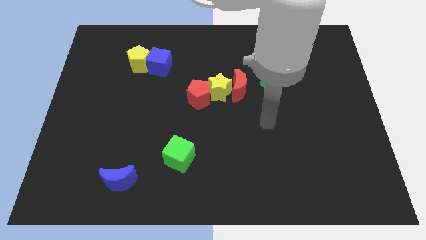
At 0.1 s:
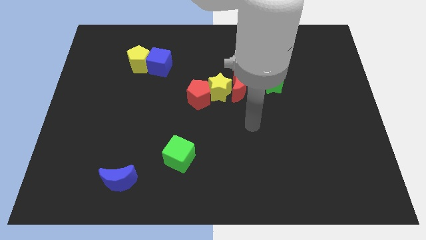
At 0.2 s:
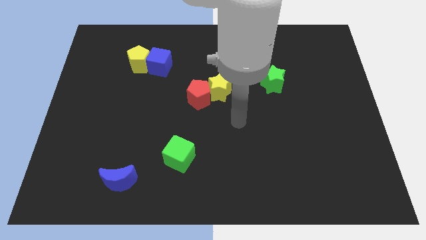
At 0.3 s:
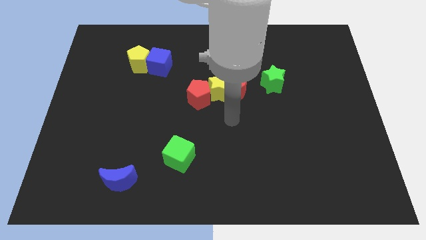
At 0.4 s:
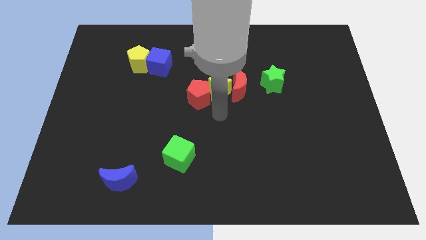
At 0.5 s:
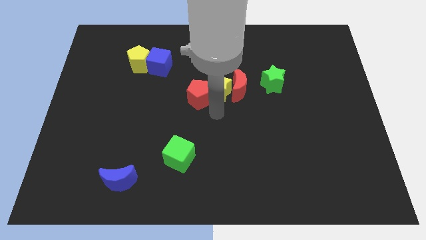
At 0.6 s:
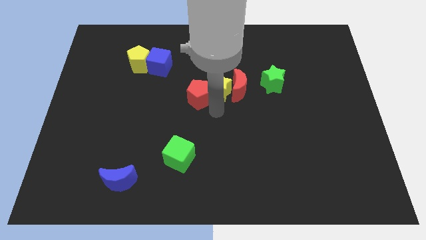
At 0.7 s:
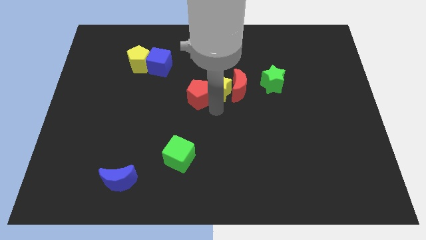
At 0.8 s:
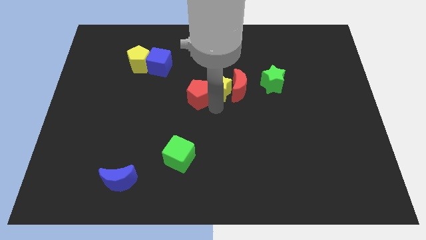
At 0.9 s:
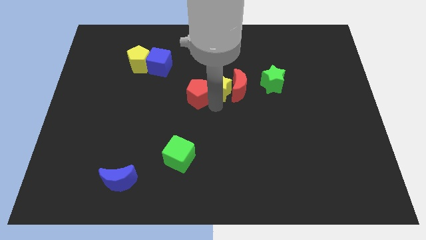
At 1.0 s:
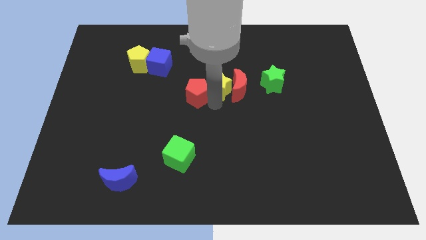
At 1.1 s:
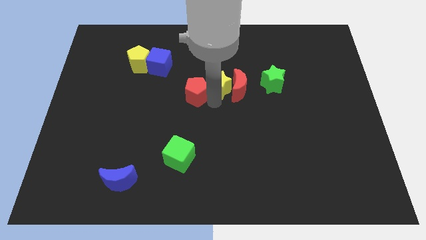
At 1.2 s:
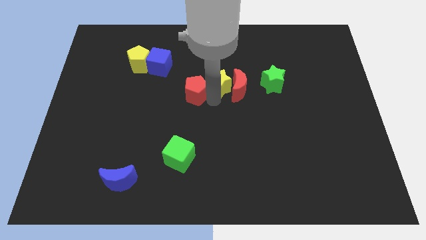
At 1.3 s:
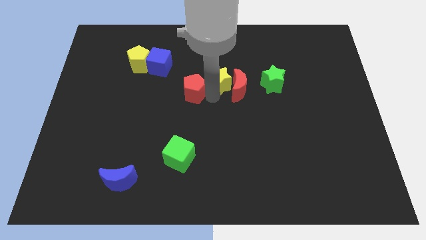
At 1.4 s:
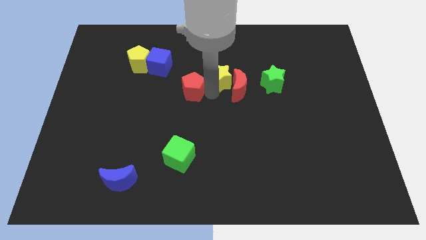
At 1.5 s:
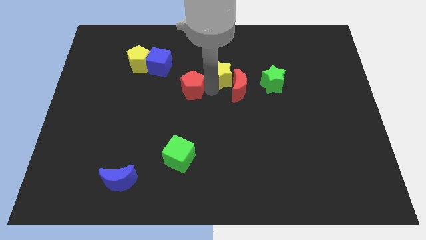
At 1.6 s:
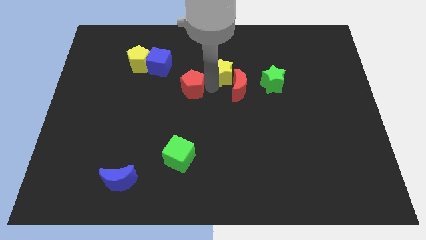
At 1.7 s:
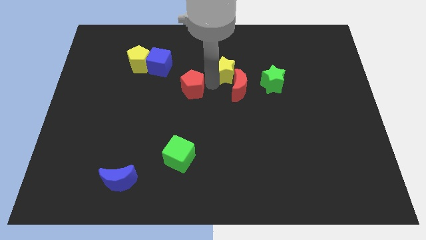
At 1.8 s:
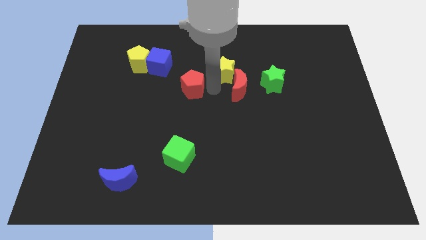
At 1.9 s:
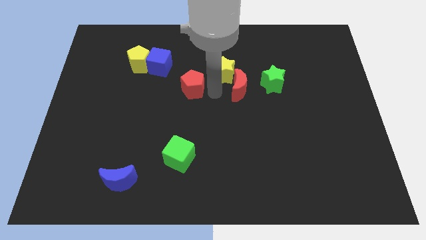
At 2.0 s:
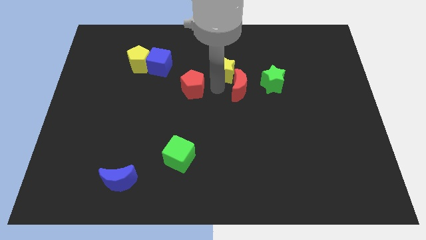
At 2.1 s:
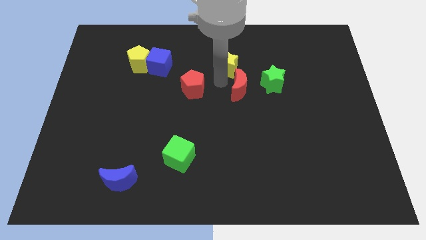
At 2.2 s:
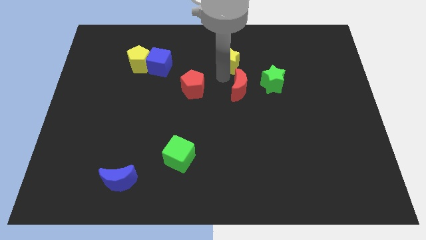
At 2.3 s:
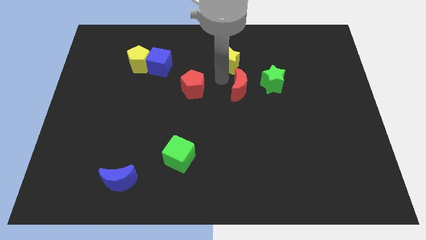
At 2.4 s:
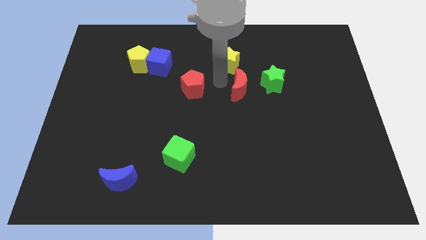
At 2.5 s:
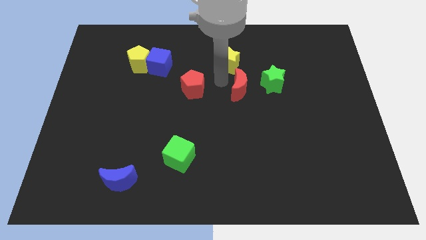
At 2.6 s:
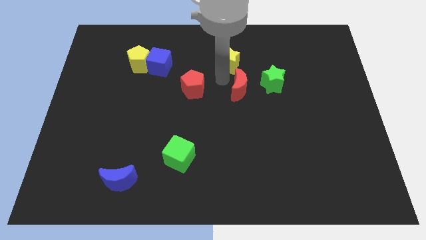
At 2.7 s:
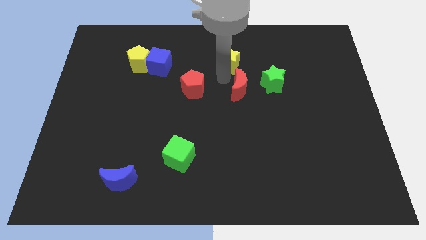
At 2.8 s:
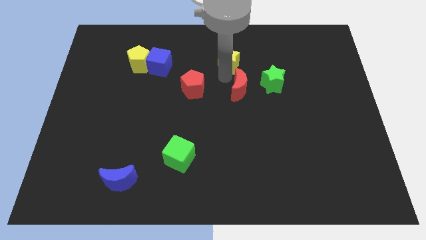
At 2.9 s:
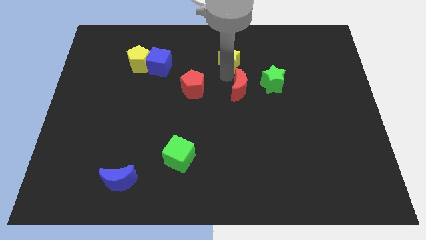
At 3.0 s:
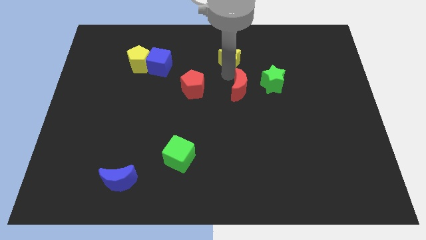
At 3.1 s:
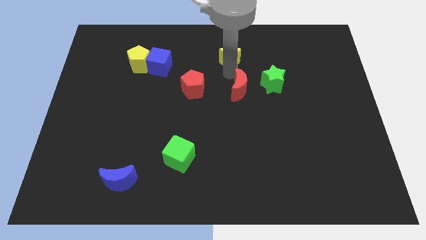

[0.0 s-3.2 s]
move the yellow star away from the red moon and red pentagon

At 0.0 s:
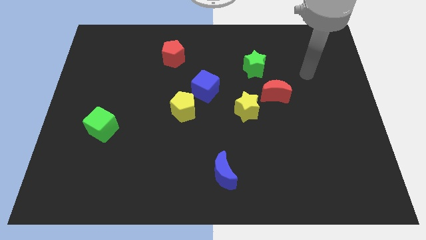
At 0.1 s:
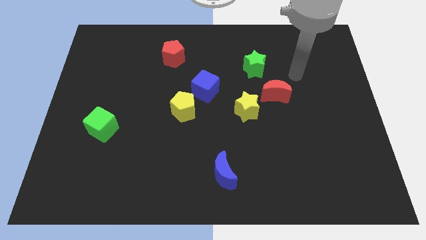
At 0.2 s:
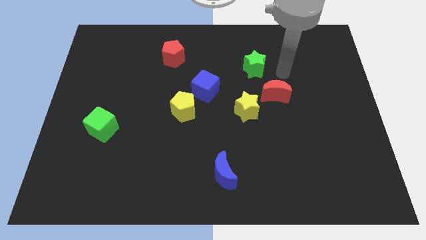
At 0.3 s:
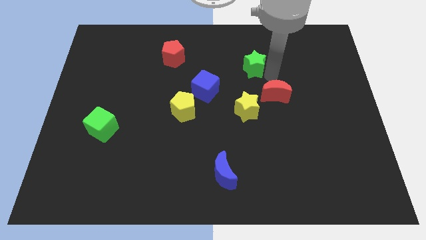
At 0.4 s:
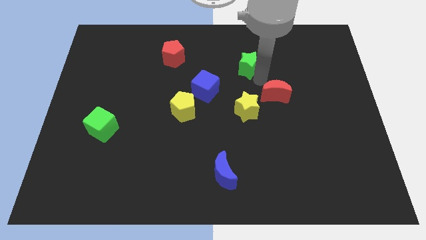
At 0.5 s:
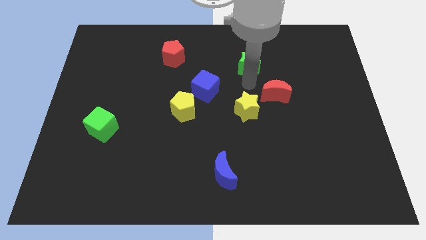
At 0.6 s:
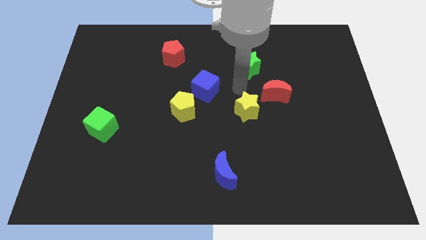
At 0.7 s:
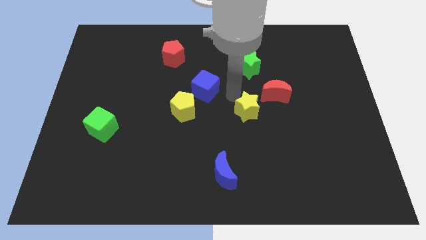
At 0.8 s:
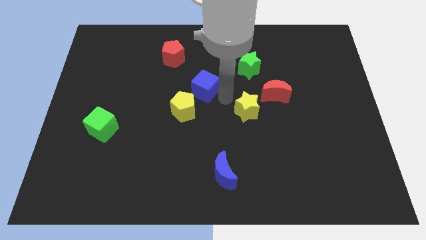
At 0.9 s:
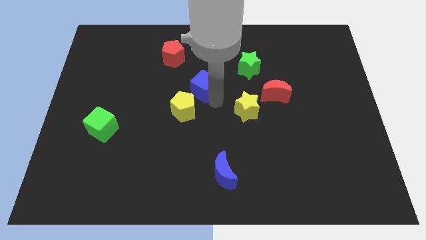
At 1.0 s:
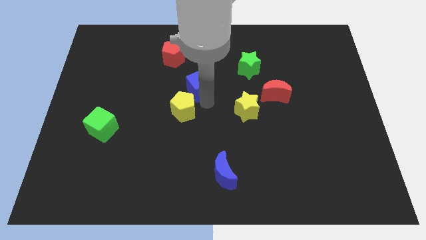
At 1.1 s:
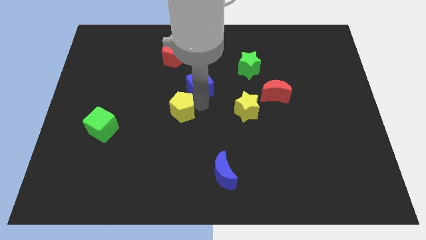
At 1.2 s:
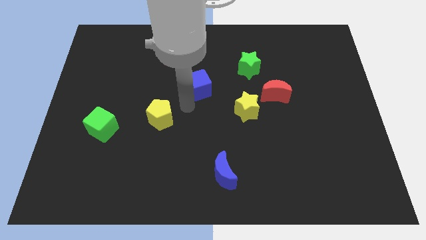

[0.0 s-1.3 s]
move the blue cube away from the yellow pentagon

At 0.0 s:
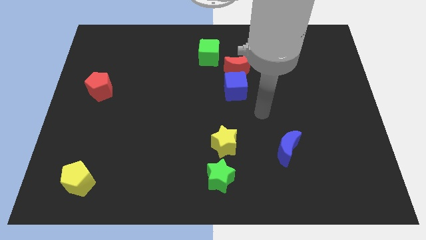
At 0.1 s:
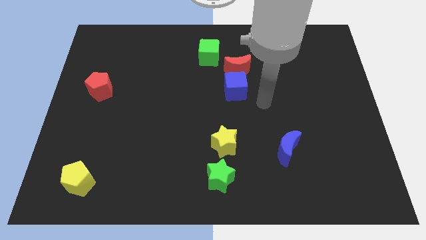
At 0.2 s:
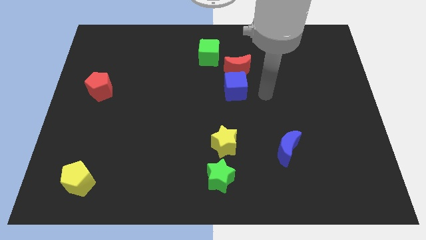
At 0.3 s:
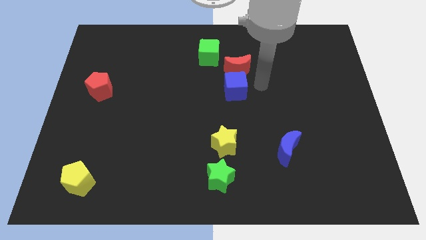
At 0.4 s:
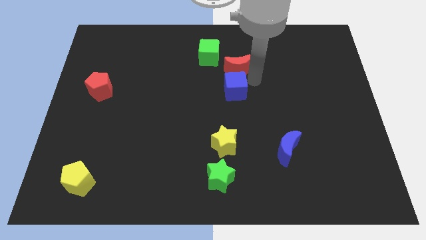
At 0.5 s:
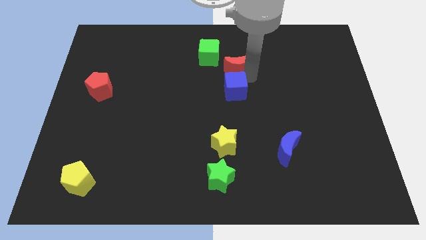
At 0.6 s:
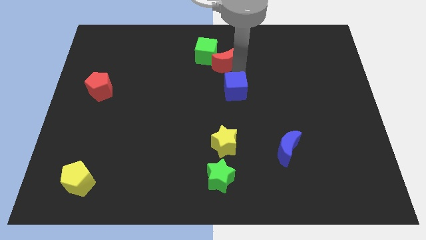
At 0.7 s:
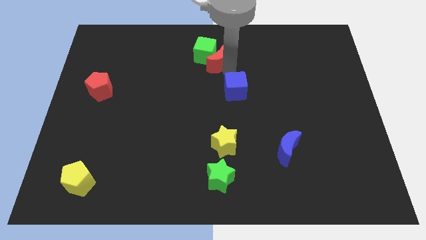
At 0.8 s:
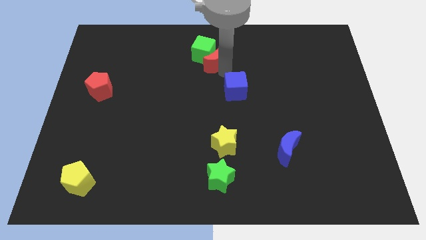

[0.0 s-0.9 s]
move the blue cube away from the red moon

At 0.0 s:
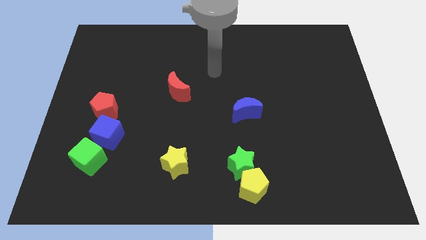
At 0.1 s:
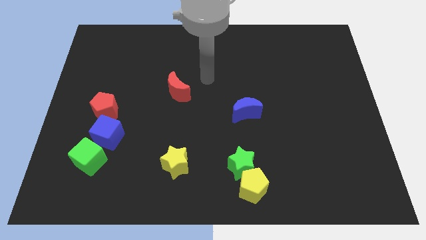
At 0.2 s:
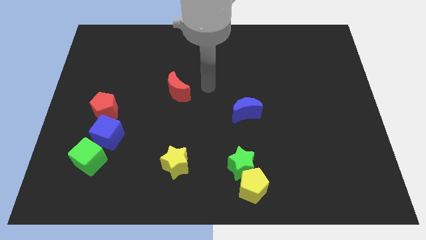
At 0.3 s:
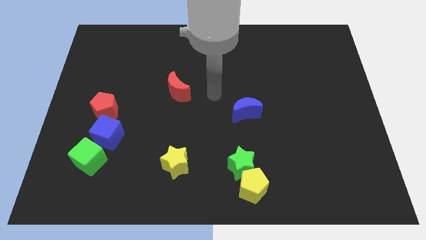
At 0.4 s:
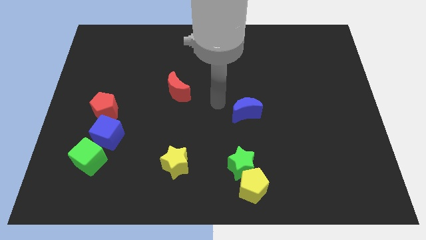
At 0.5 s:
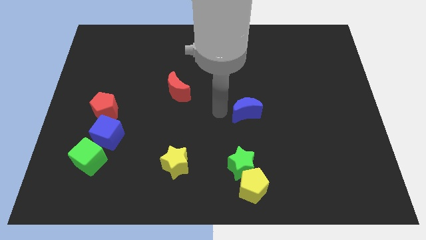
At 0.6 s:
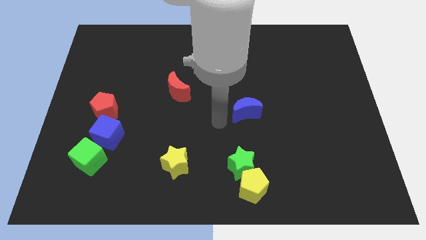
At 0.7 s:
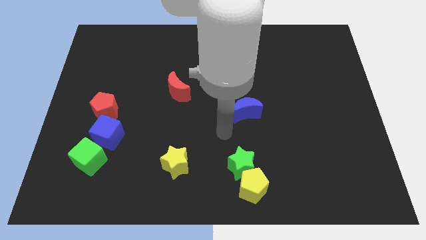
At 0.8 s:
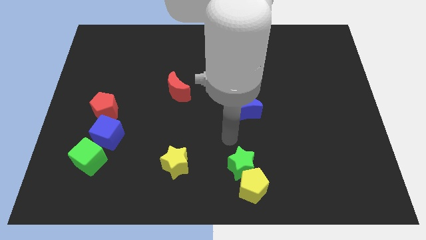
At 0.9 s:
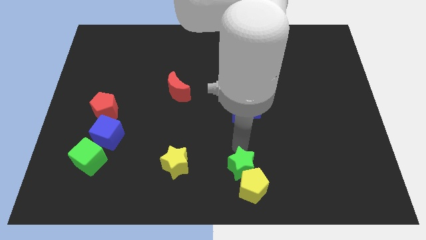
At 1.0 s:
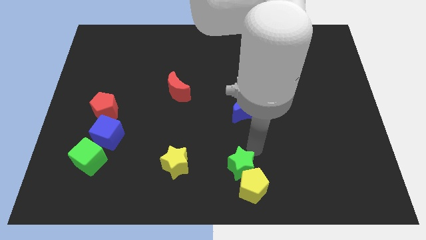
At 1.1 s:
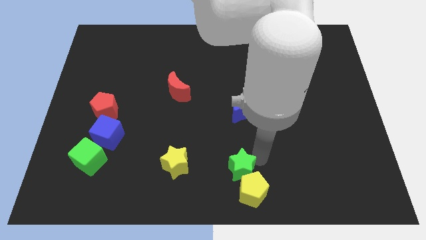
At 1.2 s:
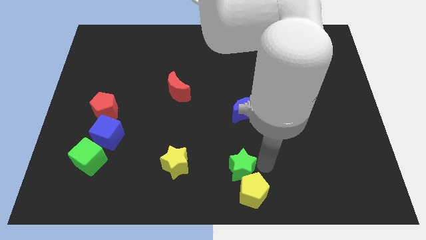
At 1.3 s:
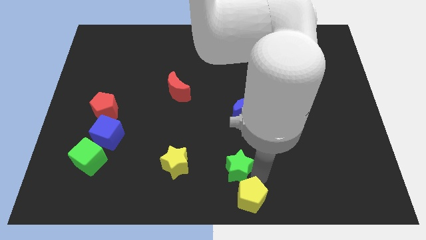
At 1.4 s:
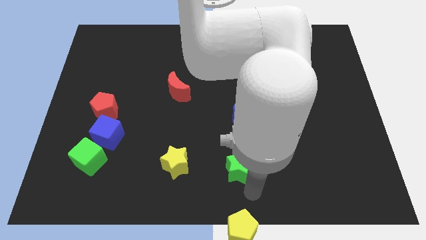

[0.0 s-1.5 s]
pull the green star apart from the yellow pentagon

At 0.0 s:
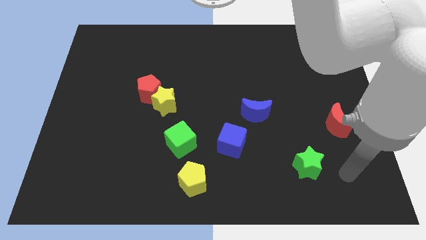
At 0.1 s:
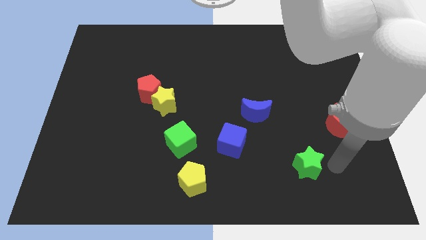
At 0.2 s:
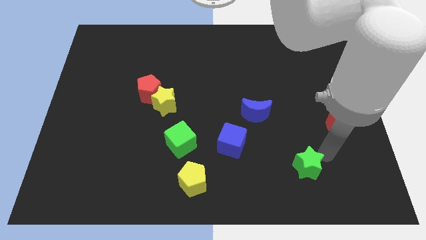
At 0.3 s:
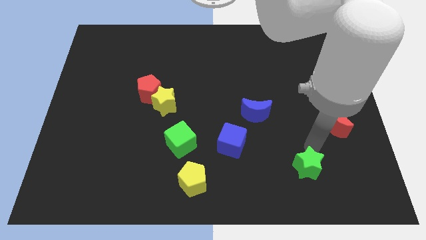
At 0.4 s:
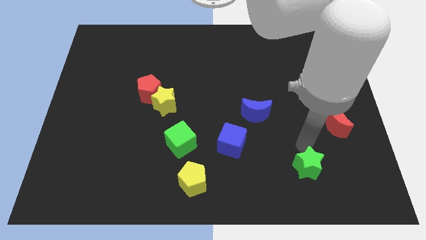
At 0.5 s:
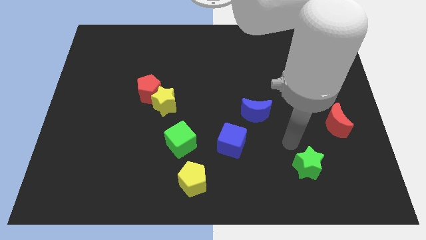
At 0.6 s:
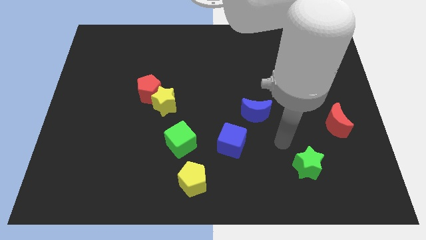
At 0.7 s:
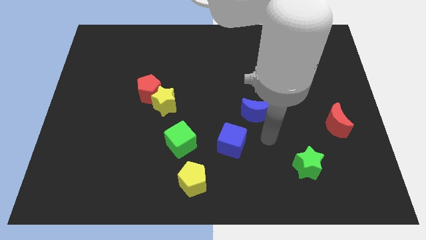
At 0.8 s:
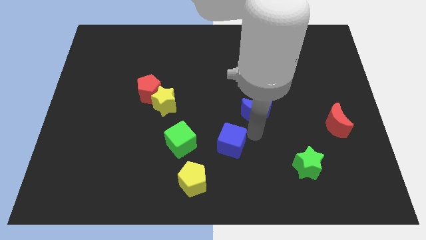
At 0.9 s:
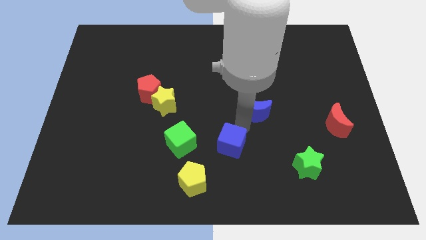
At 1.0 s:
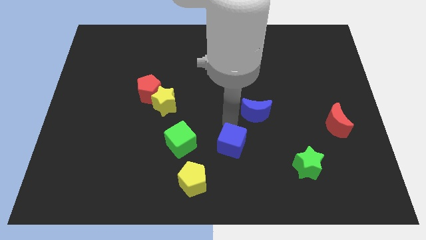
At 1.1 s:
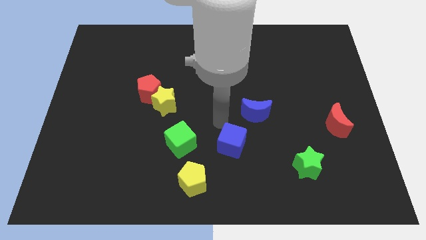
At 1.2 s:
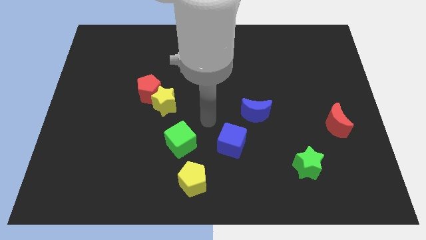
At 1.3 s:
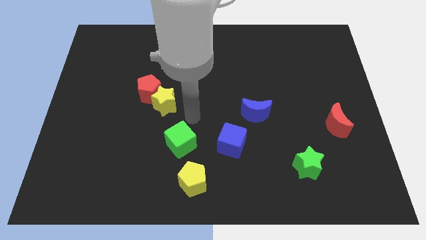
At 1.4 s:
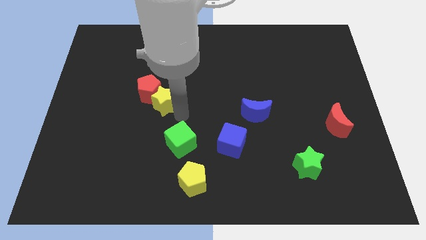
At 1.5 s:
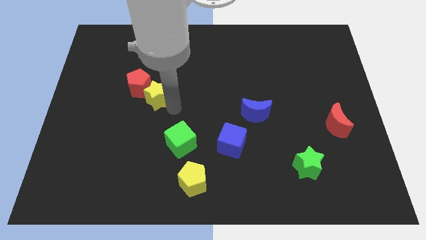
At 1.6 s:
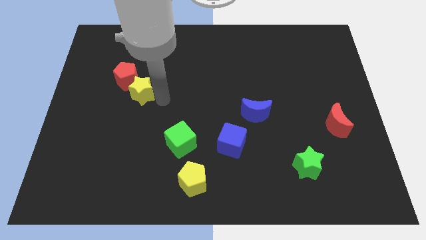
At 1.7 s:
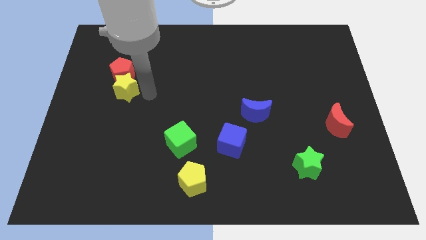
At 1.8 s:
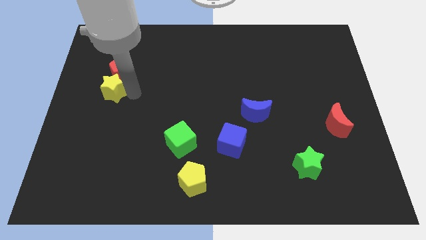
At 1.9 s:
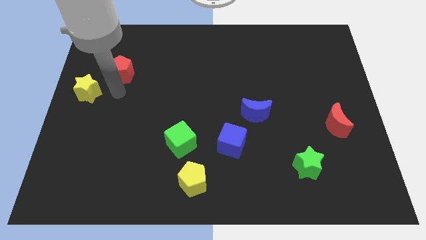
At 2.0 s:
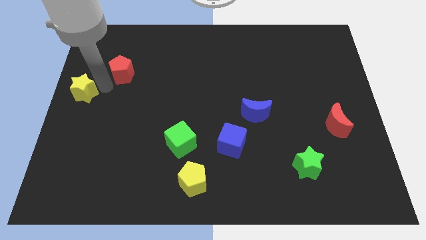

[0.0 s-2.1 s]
move the red pentagon away from the yellow star

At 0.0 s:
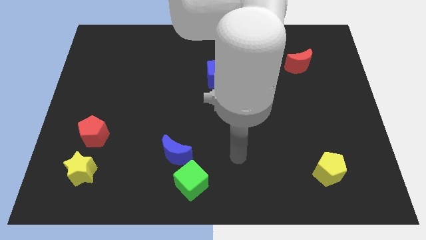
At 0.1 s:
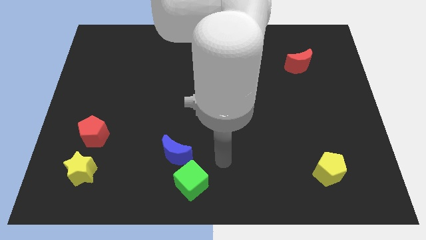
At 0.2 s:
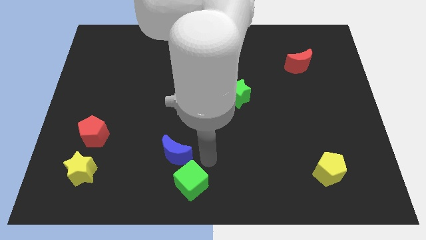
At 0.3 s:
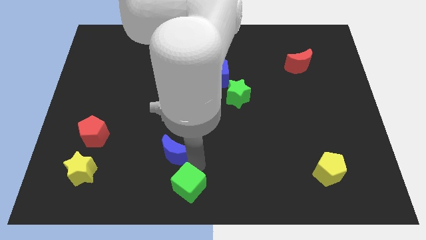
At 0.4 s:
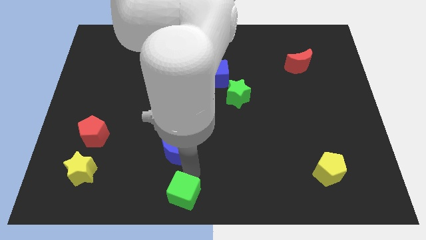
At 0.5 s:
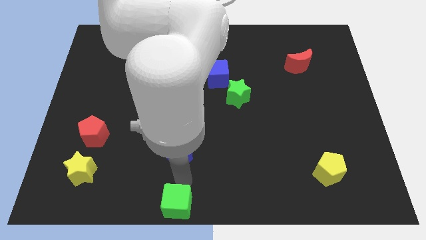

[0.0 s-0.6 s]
separate the blue moon from the green cube
